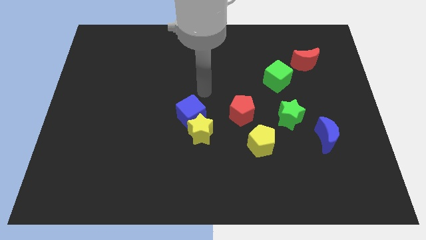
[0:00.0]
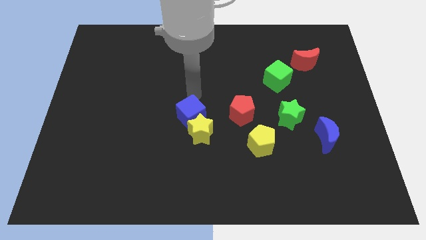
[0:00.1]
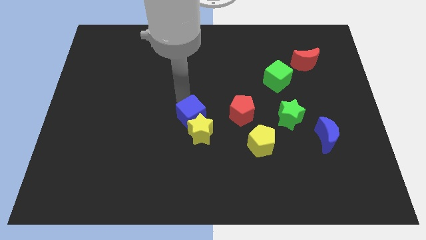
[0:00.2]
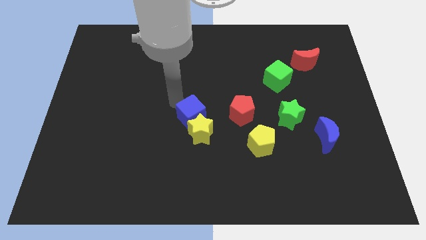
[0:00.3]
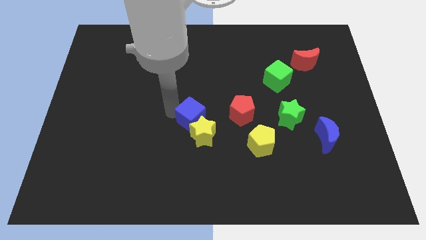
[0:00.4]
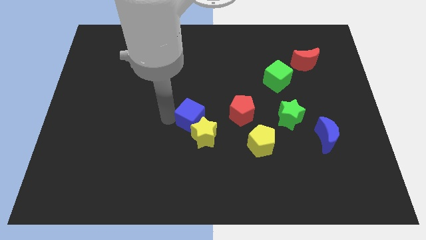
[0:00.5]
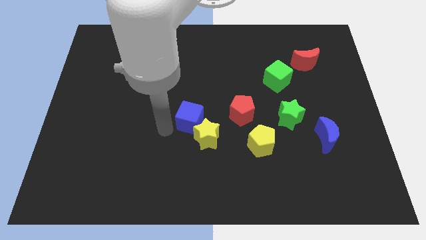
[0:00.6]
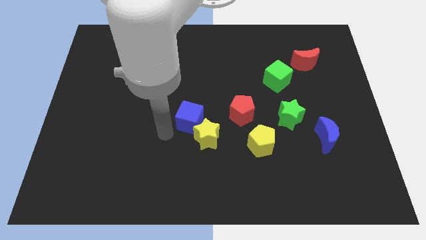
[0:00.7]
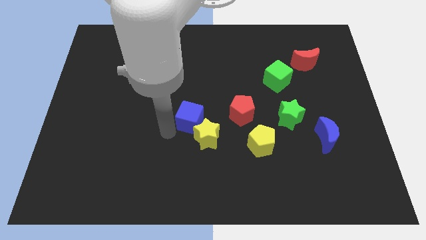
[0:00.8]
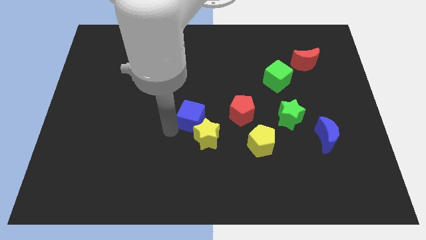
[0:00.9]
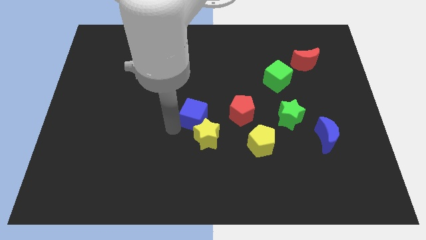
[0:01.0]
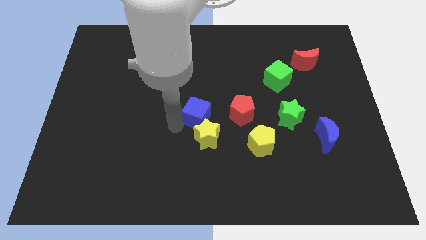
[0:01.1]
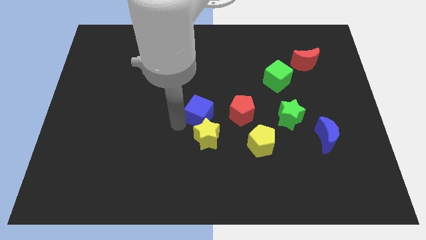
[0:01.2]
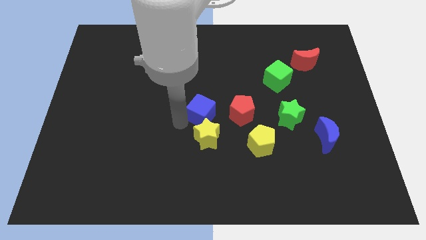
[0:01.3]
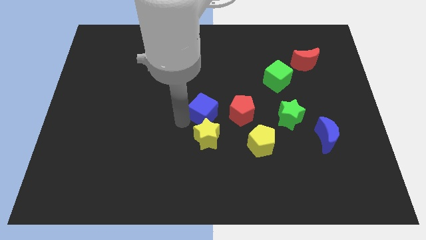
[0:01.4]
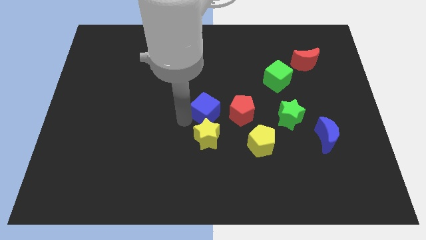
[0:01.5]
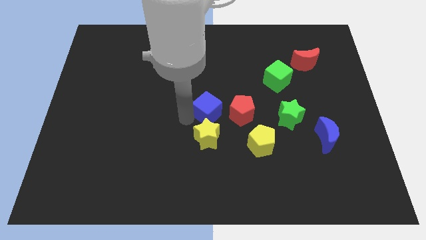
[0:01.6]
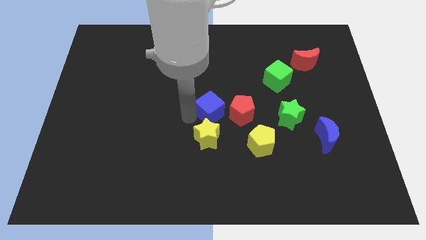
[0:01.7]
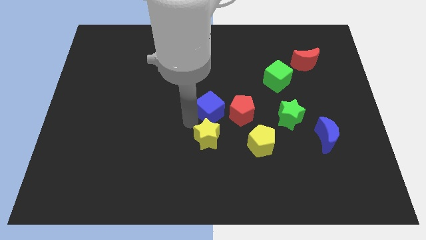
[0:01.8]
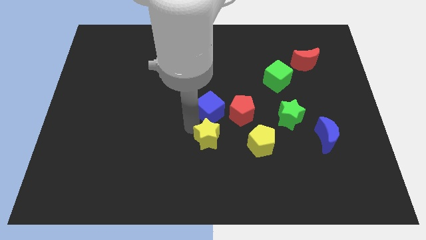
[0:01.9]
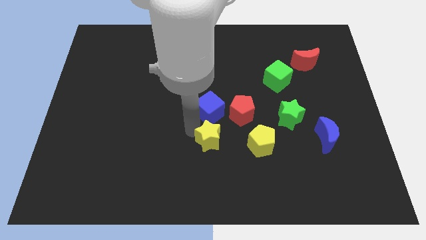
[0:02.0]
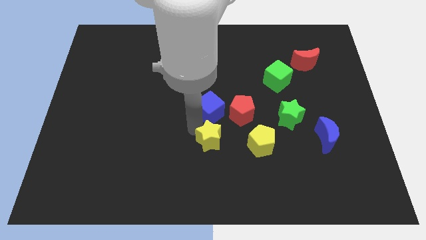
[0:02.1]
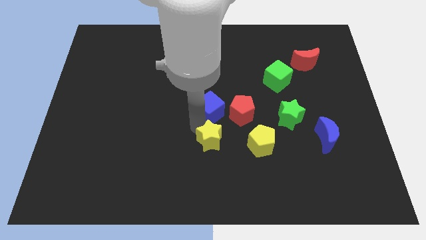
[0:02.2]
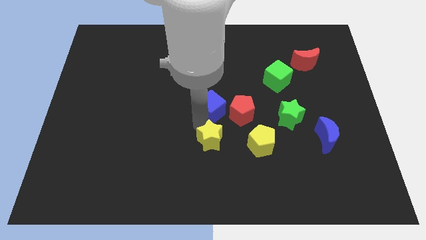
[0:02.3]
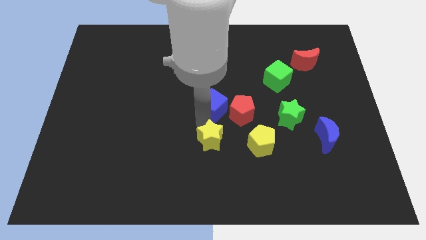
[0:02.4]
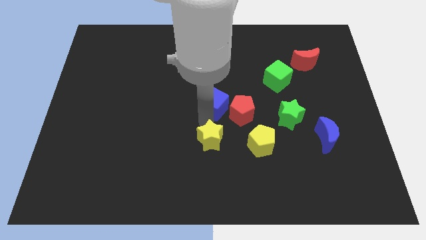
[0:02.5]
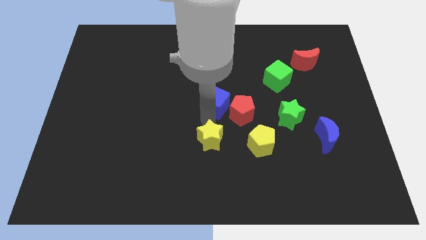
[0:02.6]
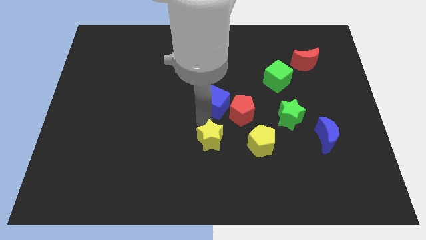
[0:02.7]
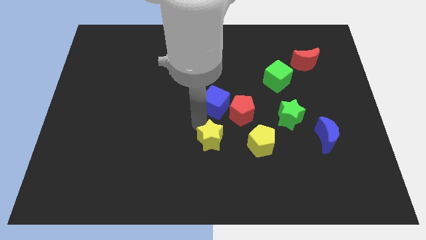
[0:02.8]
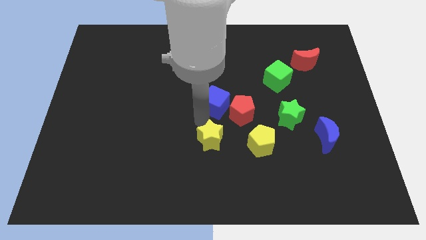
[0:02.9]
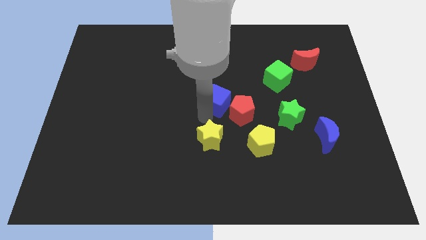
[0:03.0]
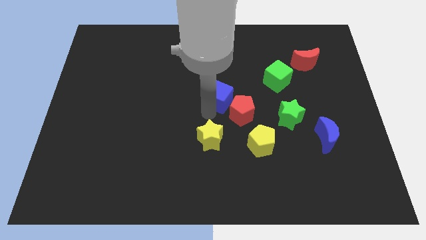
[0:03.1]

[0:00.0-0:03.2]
move the blue cube slightly upwards and then to the right

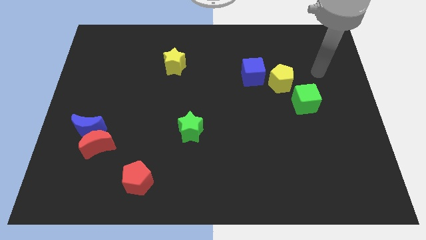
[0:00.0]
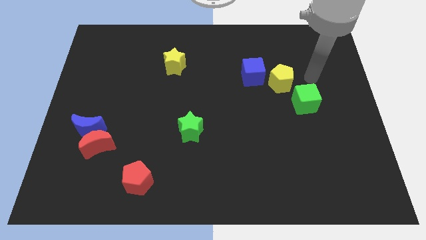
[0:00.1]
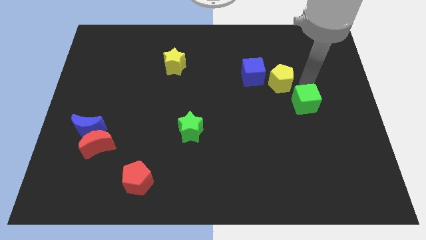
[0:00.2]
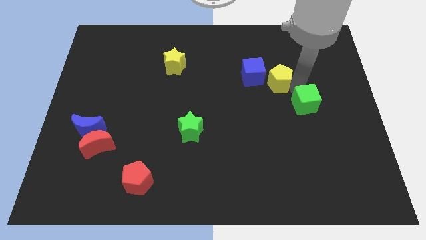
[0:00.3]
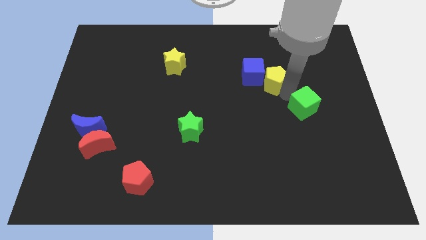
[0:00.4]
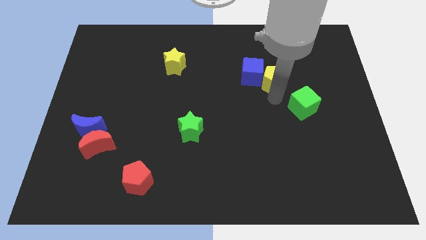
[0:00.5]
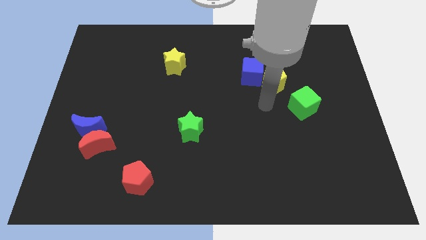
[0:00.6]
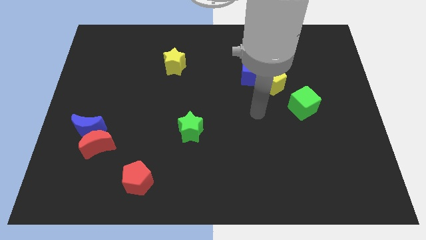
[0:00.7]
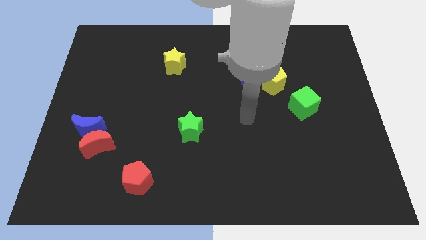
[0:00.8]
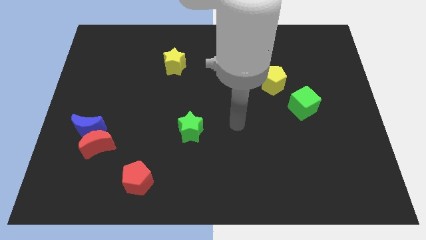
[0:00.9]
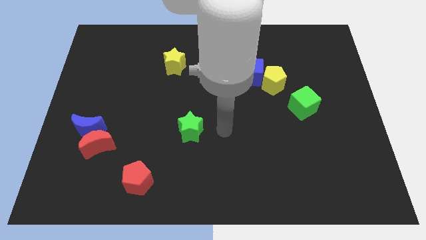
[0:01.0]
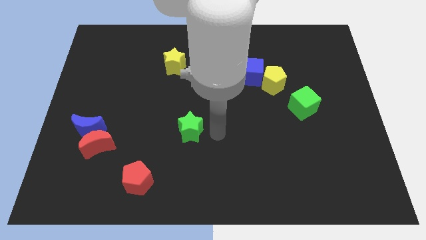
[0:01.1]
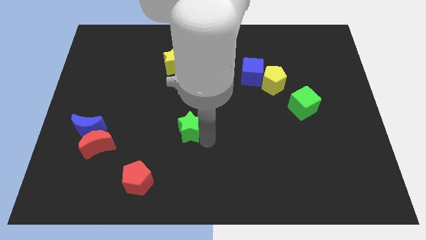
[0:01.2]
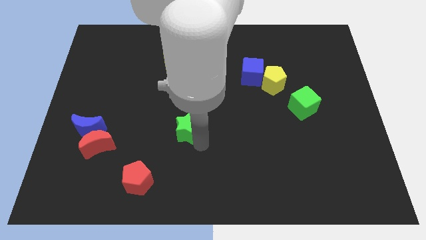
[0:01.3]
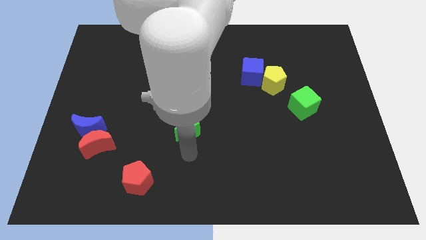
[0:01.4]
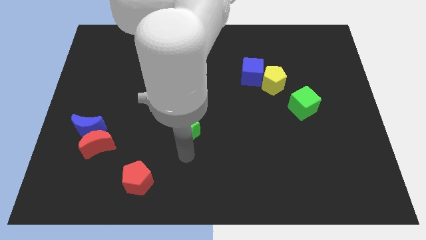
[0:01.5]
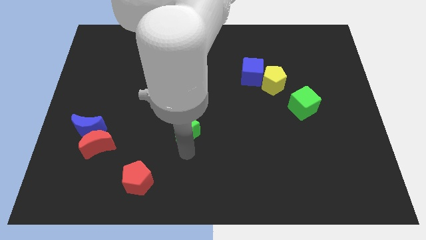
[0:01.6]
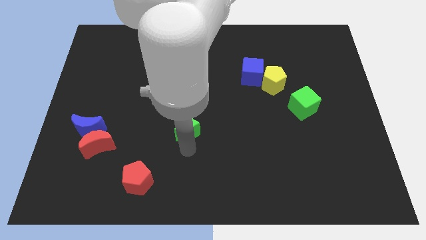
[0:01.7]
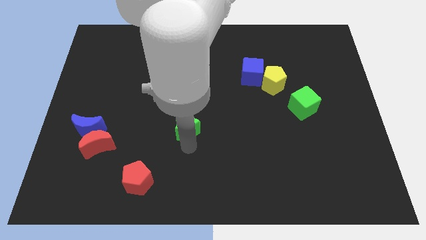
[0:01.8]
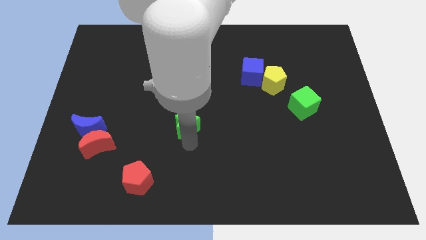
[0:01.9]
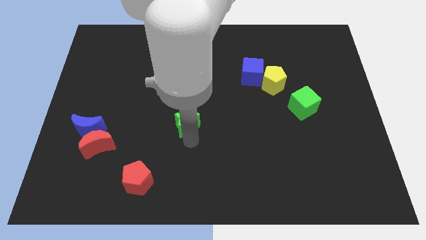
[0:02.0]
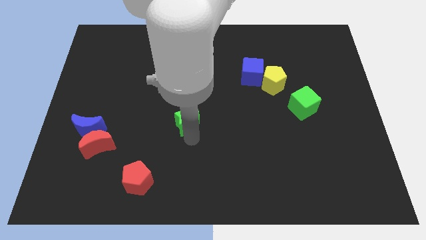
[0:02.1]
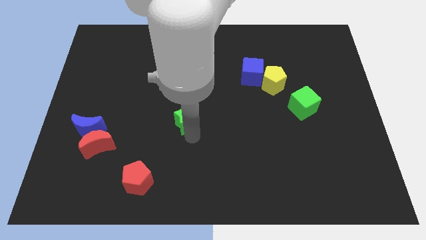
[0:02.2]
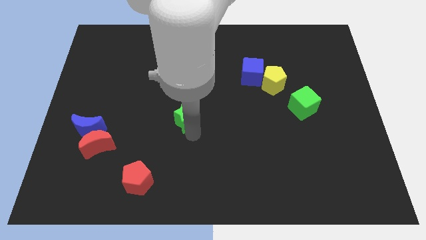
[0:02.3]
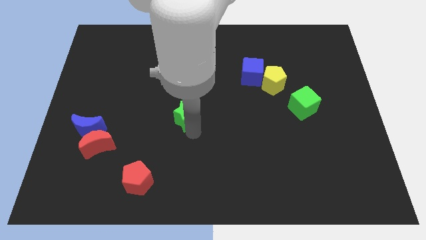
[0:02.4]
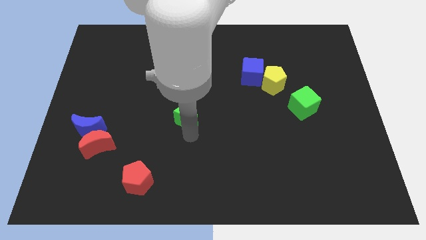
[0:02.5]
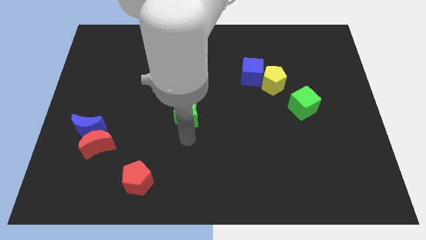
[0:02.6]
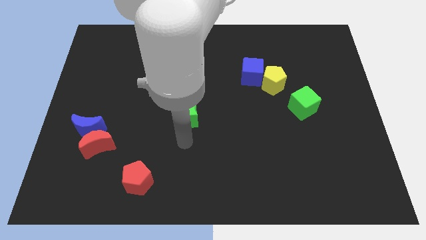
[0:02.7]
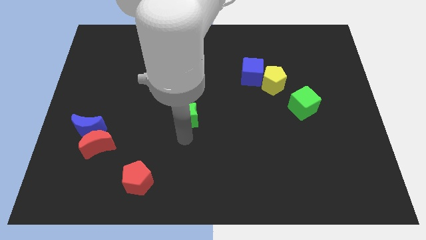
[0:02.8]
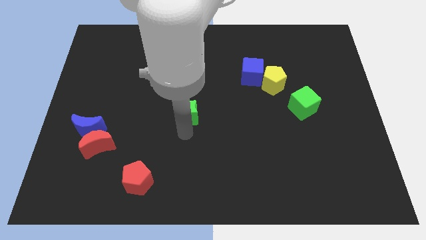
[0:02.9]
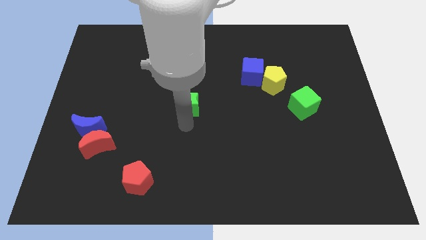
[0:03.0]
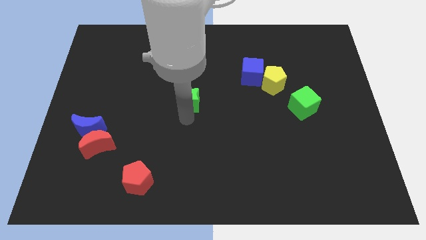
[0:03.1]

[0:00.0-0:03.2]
push the green star a bit up

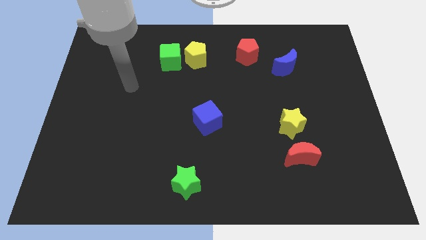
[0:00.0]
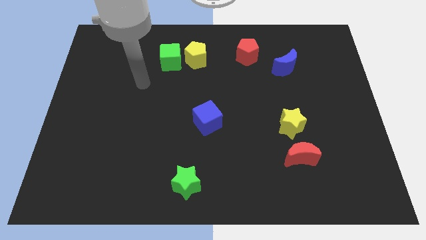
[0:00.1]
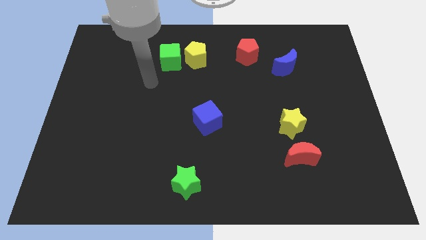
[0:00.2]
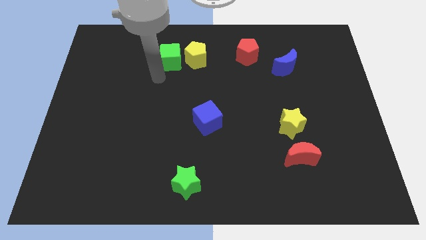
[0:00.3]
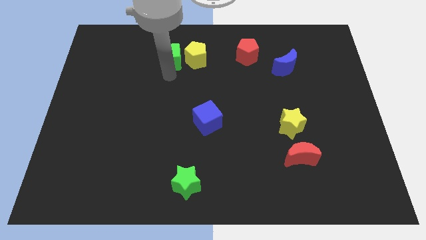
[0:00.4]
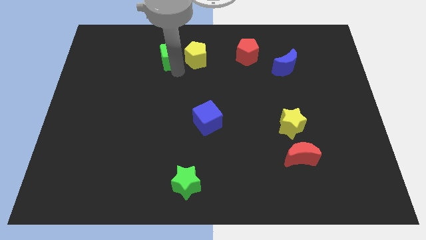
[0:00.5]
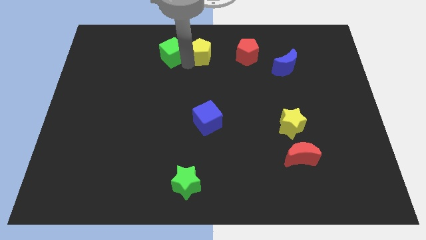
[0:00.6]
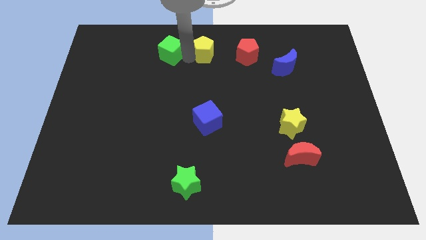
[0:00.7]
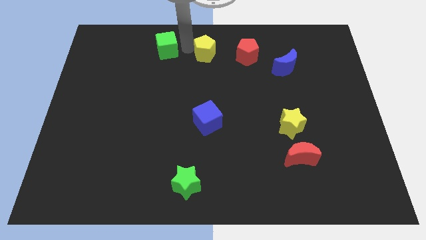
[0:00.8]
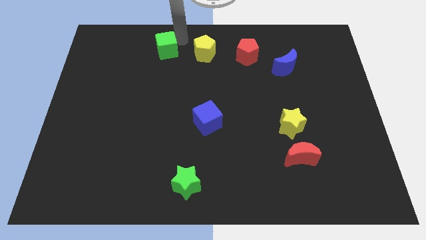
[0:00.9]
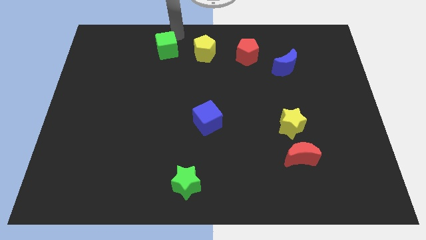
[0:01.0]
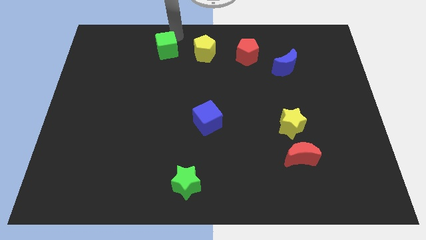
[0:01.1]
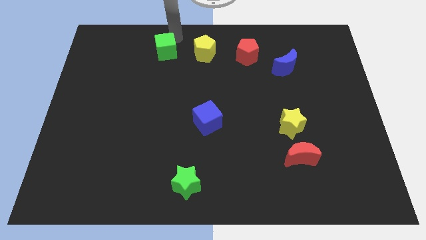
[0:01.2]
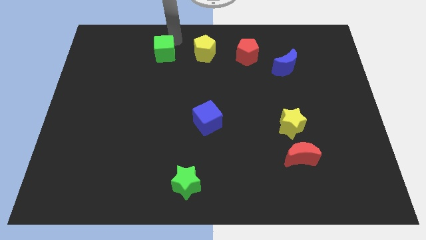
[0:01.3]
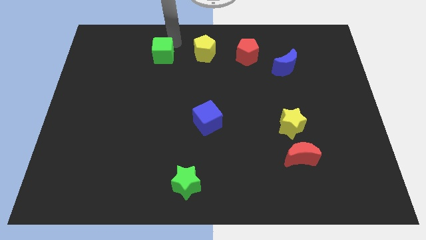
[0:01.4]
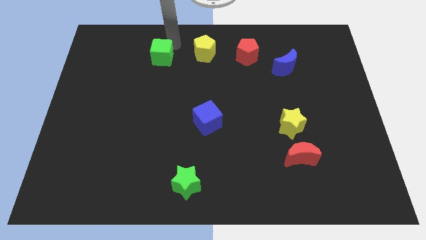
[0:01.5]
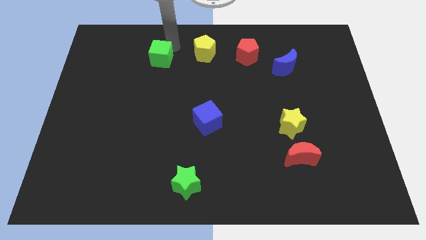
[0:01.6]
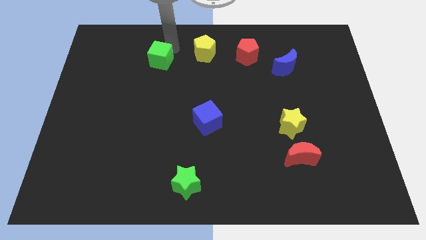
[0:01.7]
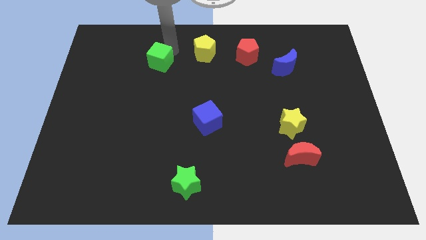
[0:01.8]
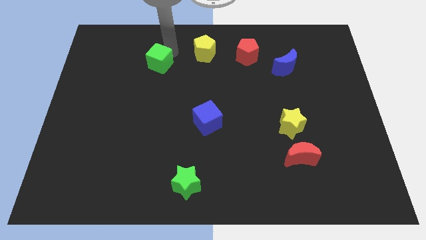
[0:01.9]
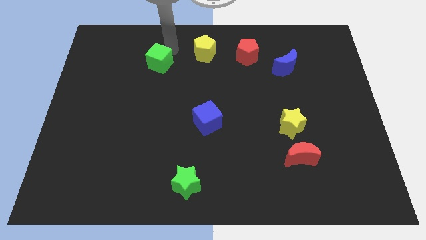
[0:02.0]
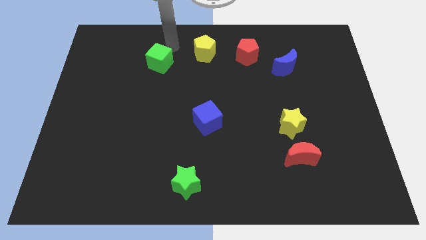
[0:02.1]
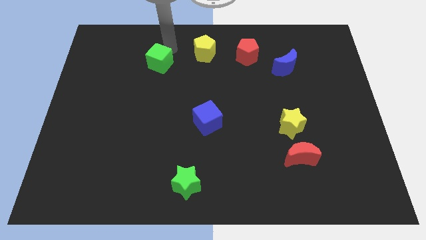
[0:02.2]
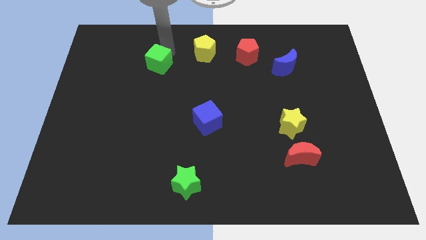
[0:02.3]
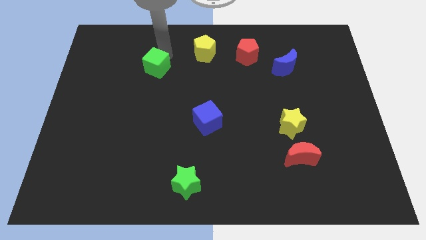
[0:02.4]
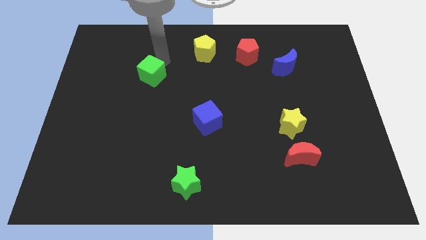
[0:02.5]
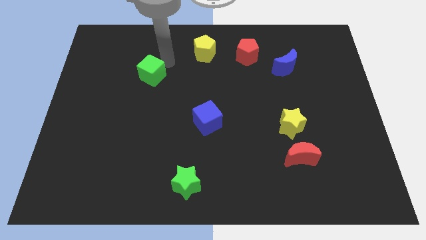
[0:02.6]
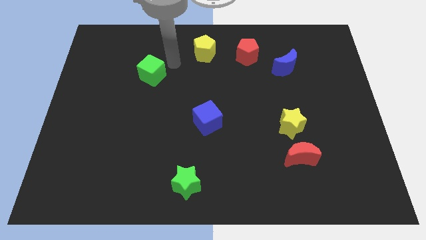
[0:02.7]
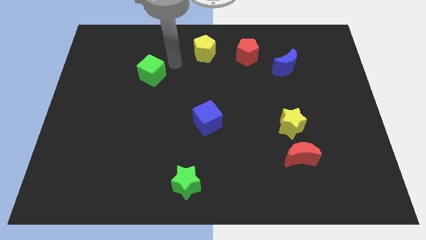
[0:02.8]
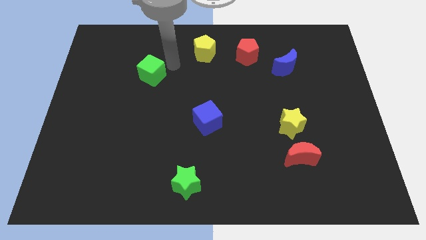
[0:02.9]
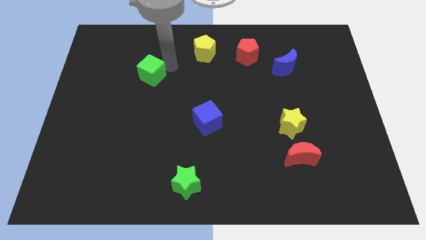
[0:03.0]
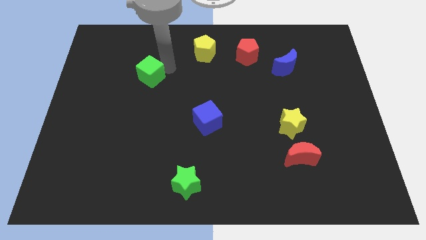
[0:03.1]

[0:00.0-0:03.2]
push the green cube a bit downwards and then left
